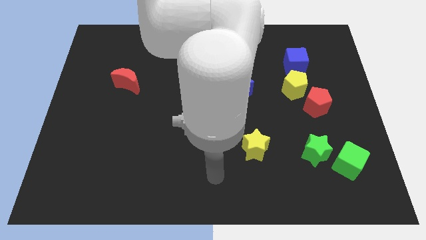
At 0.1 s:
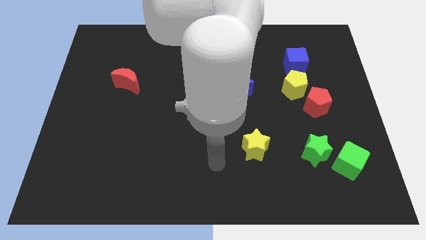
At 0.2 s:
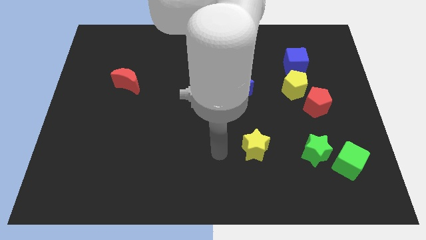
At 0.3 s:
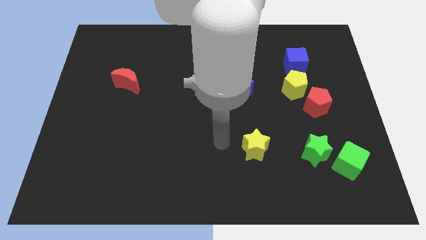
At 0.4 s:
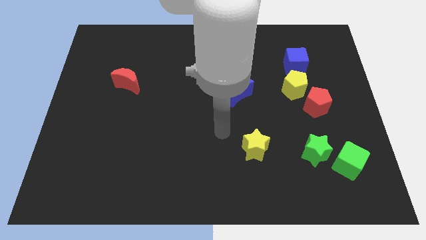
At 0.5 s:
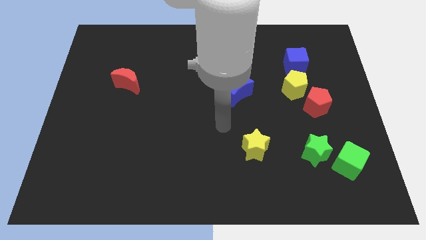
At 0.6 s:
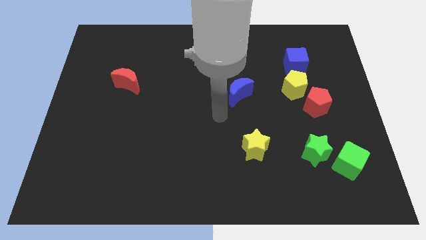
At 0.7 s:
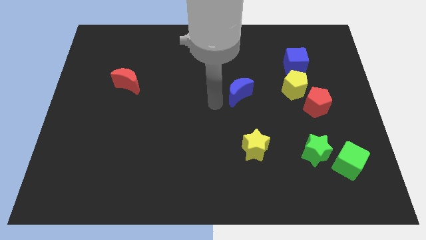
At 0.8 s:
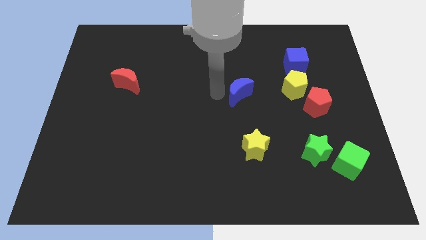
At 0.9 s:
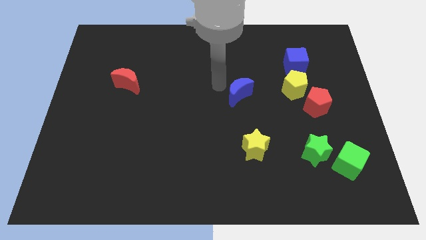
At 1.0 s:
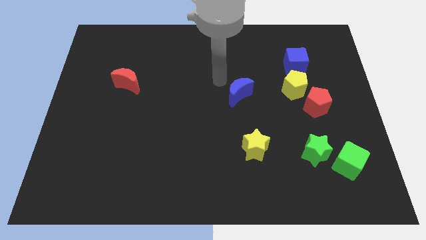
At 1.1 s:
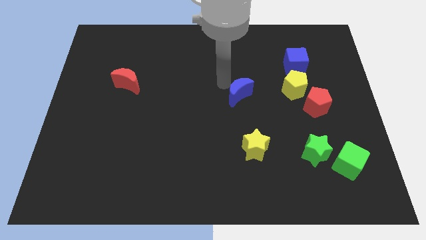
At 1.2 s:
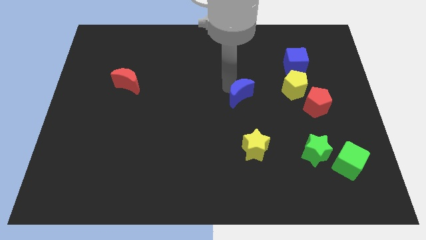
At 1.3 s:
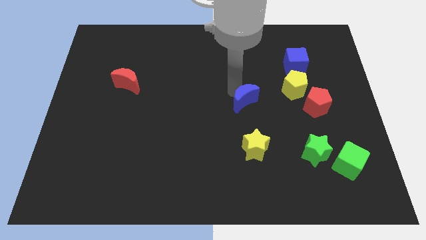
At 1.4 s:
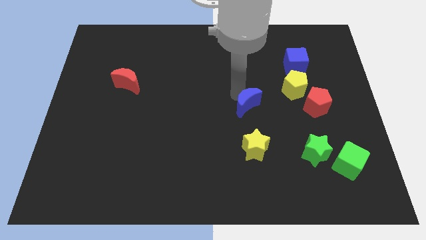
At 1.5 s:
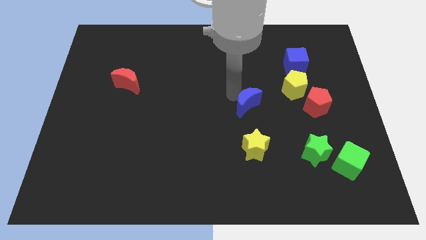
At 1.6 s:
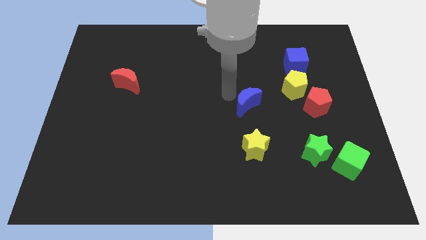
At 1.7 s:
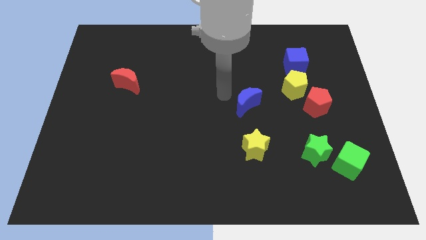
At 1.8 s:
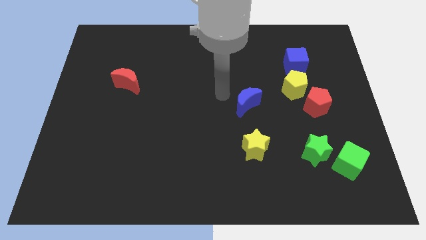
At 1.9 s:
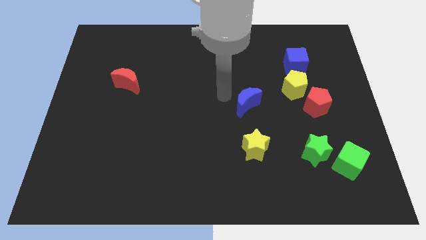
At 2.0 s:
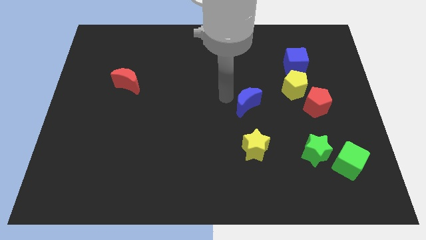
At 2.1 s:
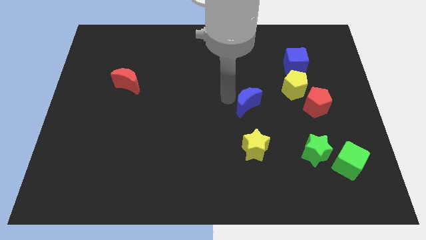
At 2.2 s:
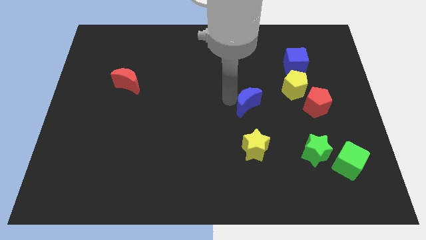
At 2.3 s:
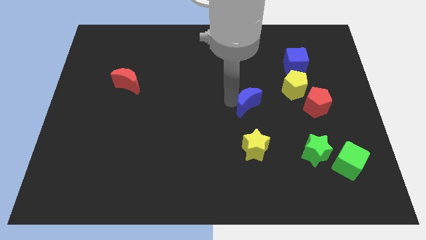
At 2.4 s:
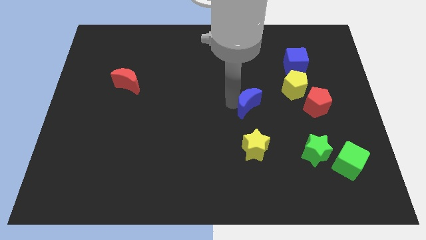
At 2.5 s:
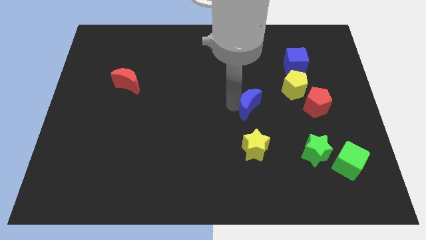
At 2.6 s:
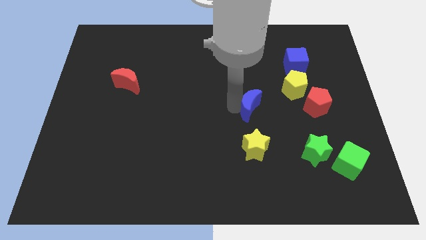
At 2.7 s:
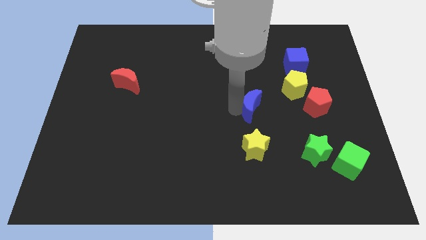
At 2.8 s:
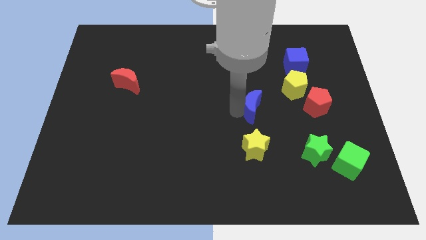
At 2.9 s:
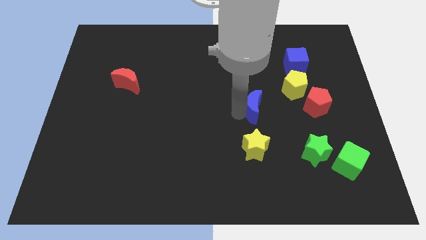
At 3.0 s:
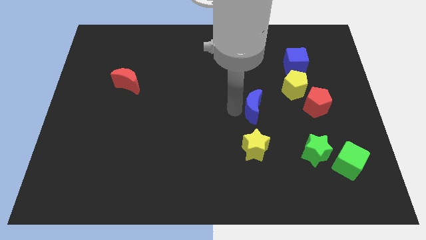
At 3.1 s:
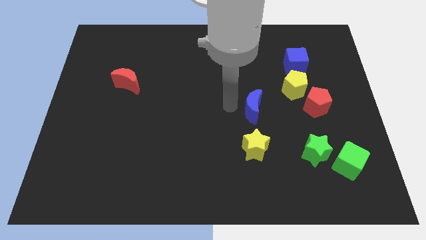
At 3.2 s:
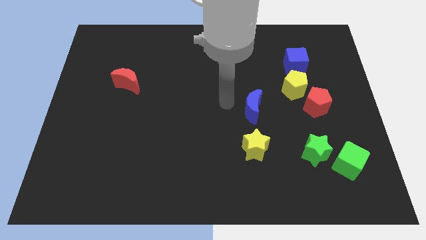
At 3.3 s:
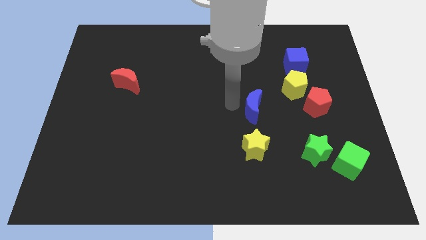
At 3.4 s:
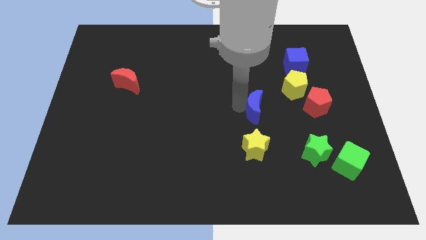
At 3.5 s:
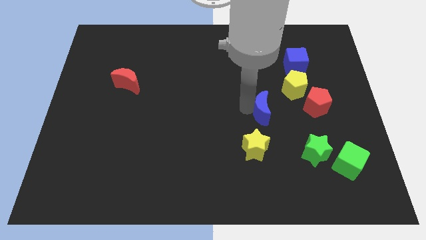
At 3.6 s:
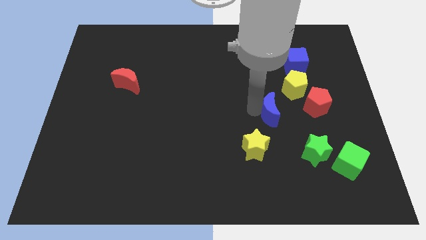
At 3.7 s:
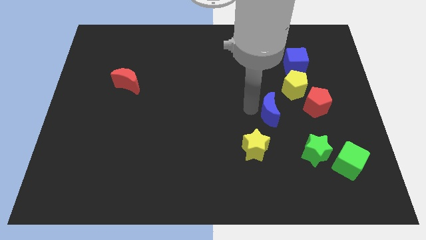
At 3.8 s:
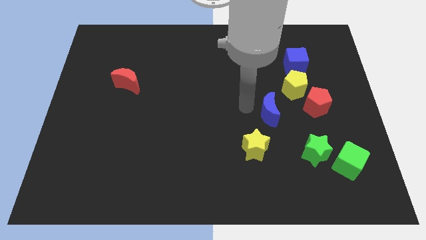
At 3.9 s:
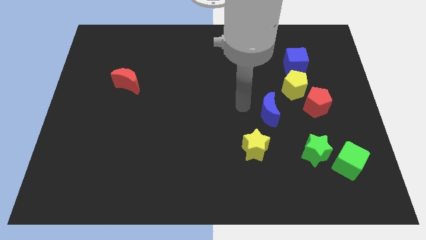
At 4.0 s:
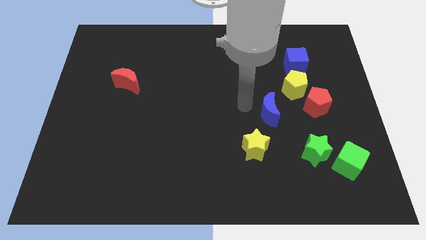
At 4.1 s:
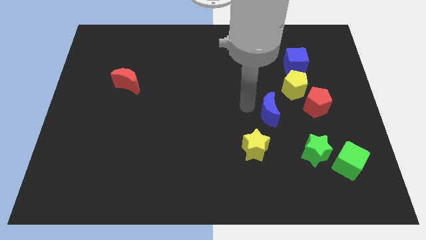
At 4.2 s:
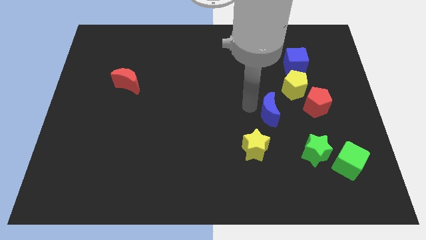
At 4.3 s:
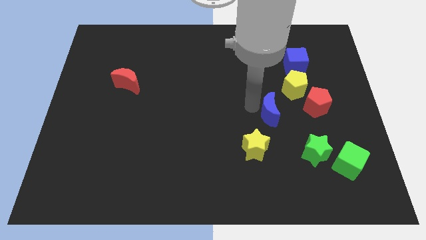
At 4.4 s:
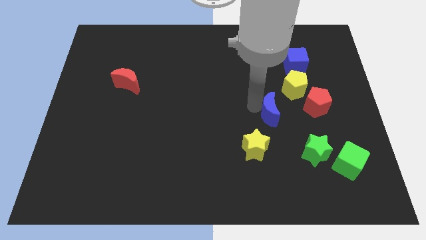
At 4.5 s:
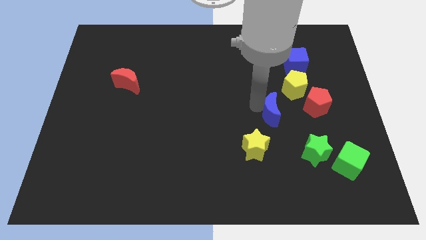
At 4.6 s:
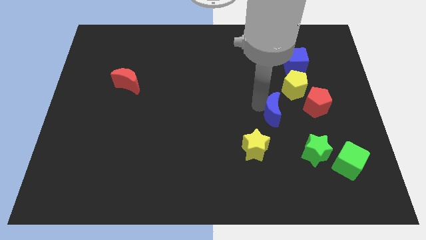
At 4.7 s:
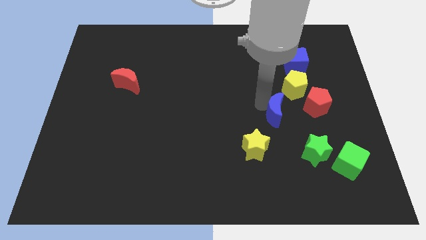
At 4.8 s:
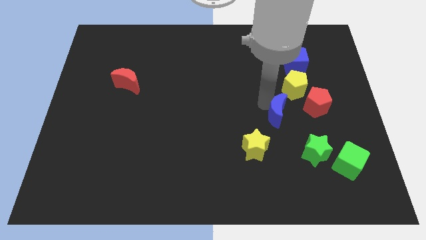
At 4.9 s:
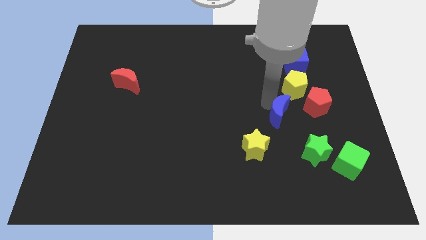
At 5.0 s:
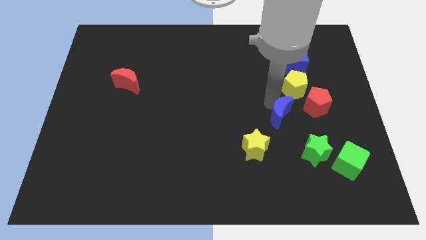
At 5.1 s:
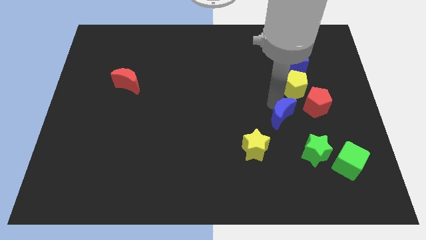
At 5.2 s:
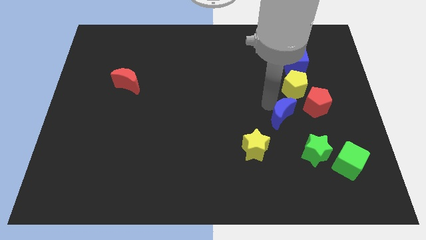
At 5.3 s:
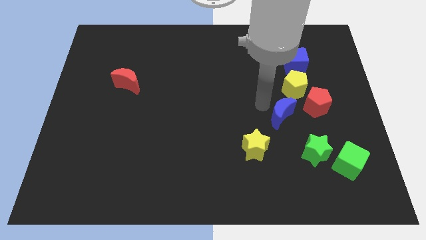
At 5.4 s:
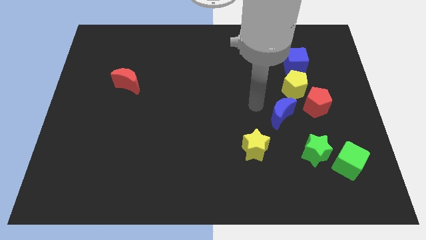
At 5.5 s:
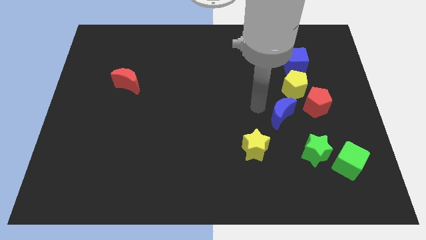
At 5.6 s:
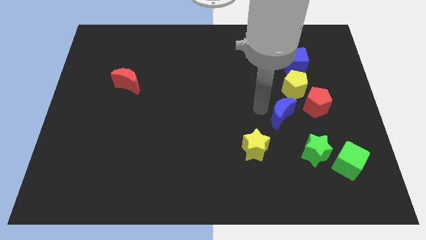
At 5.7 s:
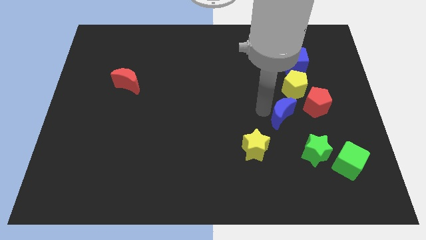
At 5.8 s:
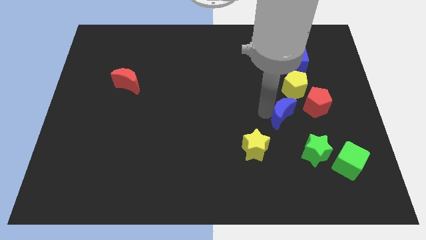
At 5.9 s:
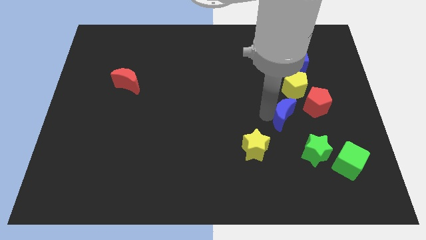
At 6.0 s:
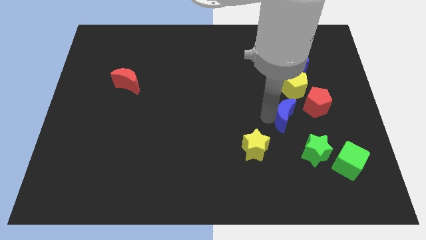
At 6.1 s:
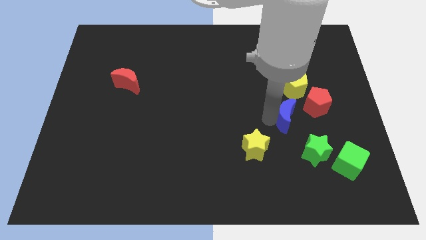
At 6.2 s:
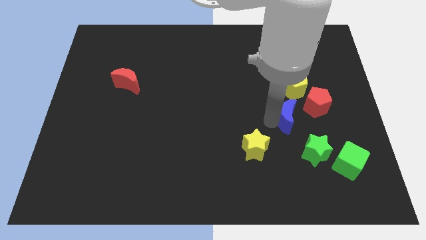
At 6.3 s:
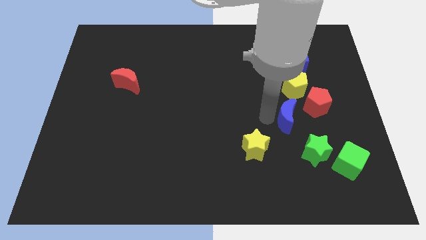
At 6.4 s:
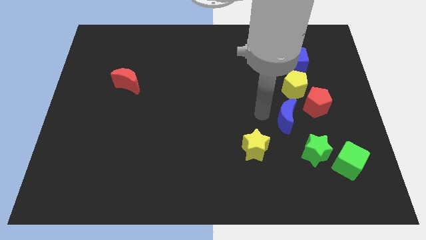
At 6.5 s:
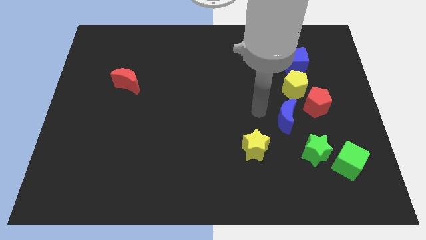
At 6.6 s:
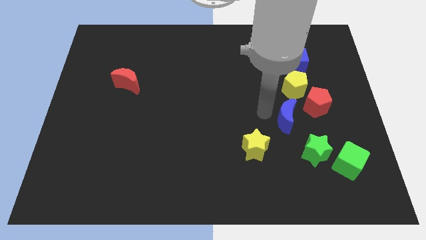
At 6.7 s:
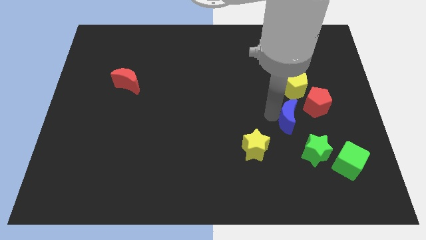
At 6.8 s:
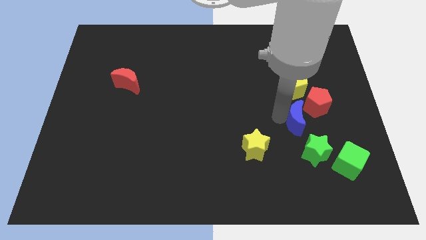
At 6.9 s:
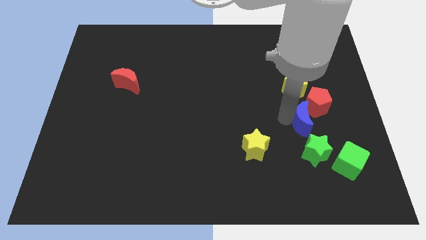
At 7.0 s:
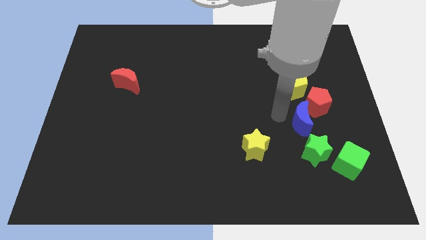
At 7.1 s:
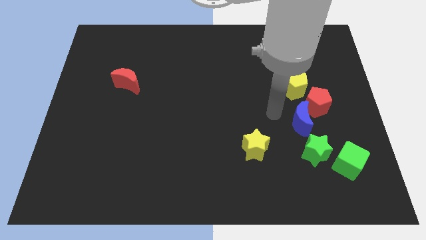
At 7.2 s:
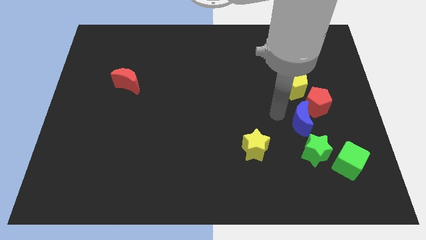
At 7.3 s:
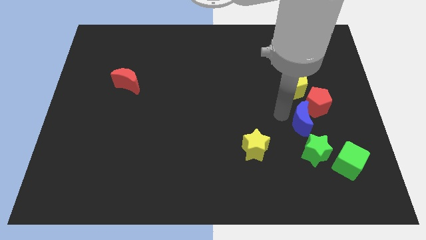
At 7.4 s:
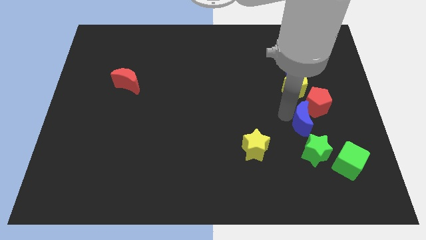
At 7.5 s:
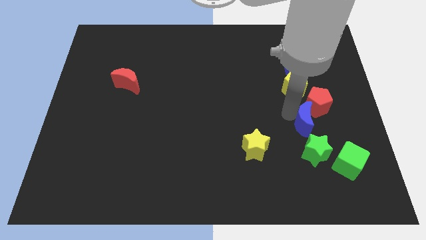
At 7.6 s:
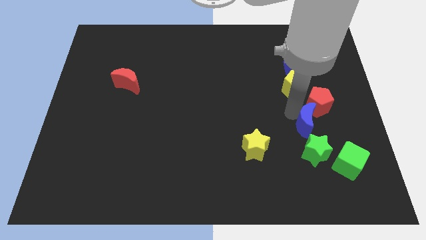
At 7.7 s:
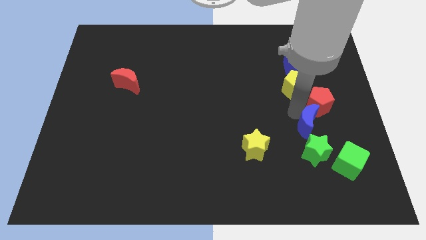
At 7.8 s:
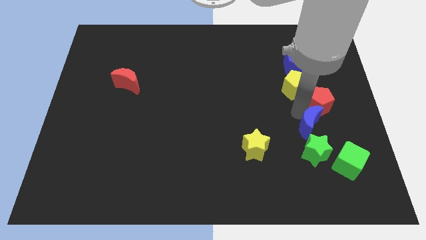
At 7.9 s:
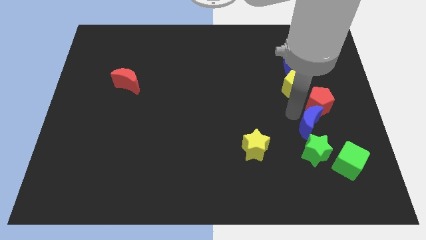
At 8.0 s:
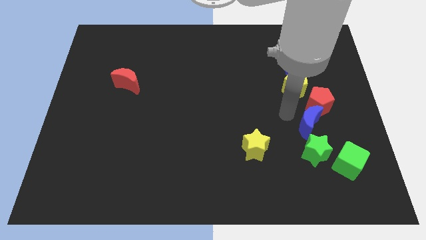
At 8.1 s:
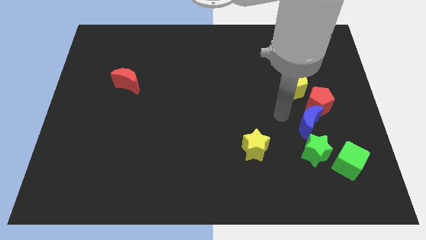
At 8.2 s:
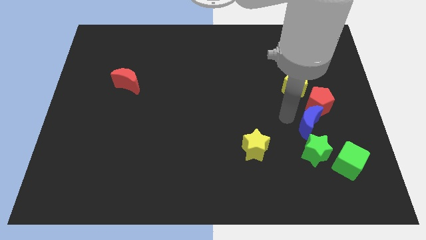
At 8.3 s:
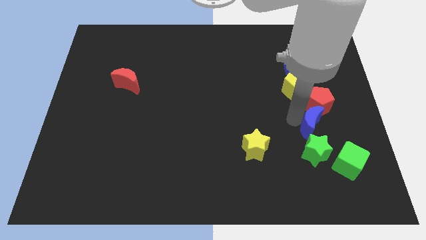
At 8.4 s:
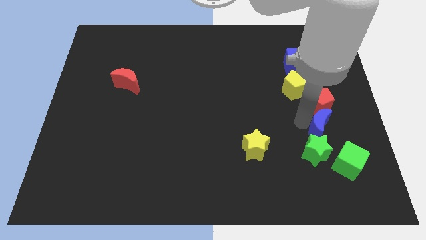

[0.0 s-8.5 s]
put the blue moon to the top right side of the green star
